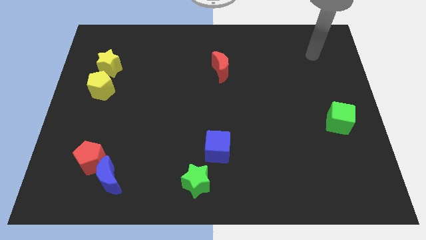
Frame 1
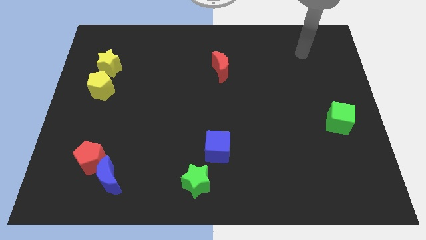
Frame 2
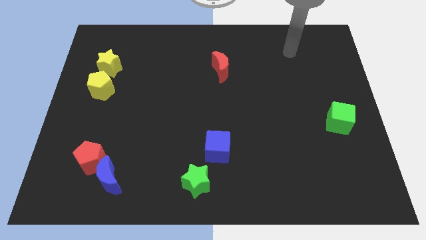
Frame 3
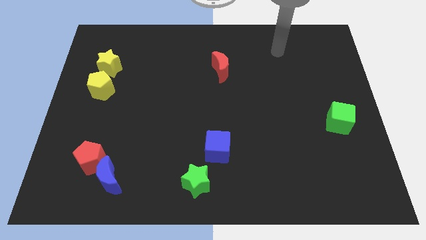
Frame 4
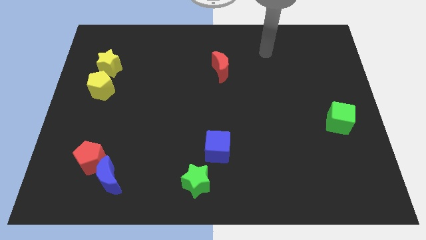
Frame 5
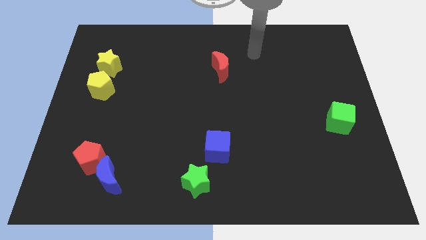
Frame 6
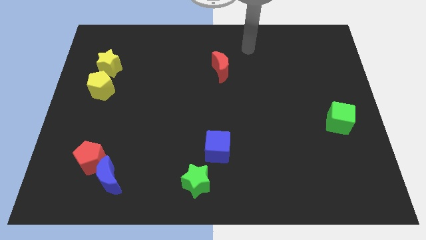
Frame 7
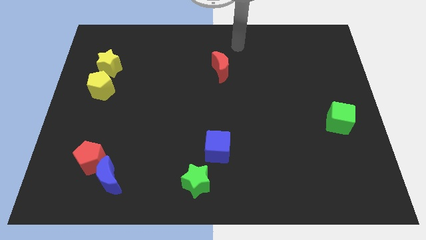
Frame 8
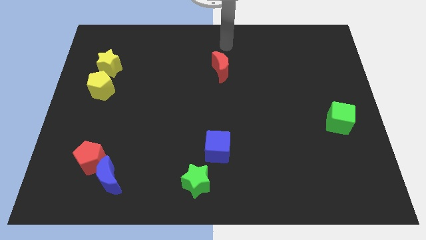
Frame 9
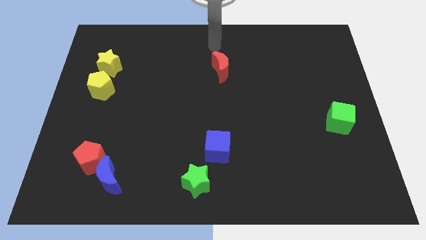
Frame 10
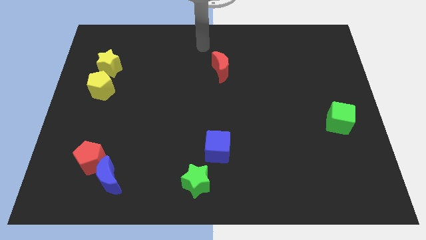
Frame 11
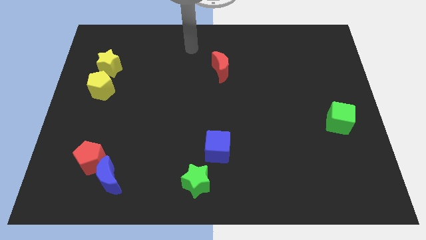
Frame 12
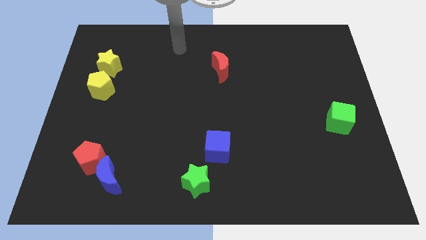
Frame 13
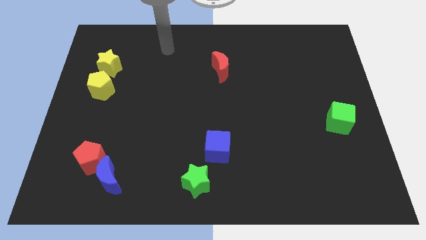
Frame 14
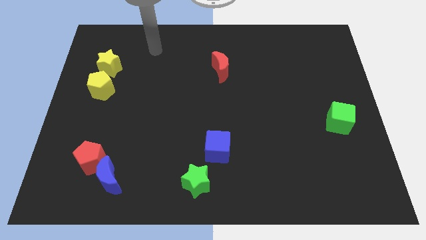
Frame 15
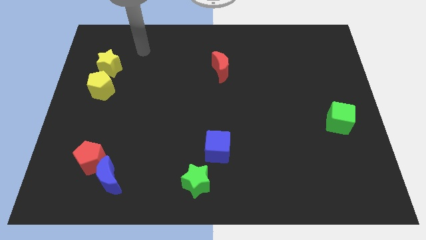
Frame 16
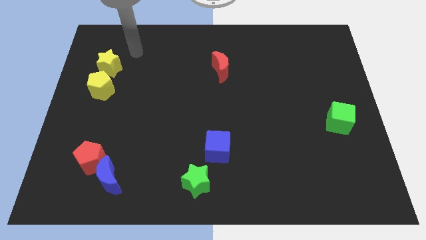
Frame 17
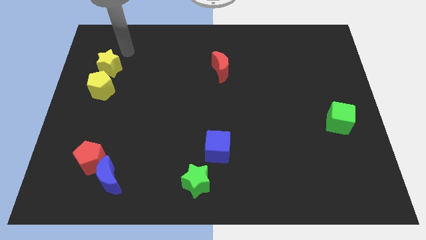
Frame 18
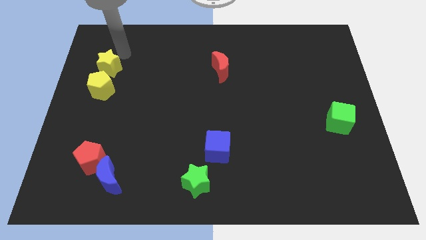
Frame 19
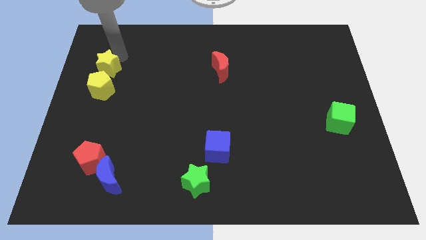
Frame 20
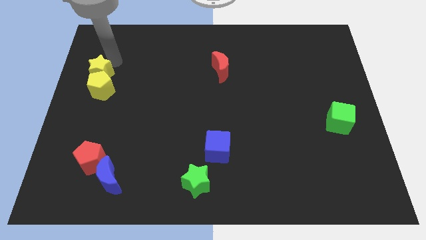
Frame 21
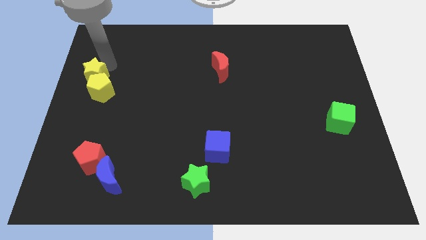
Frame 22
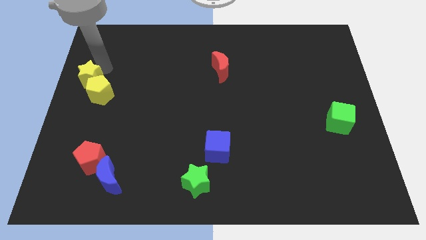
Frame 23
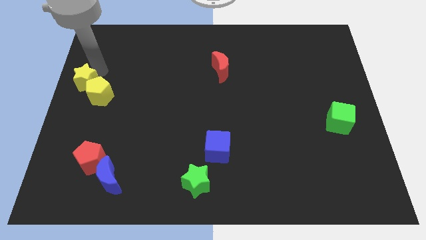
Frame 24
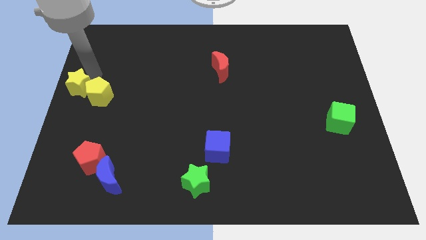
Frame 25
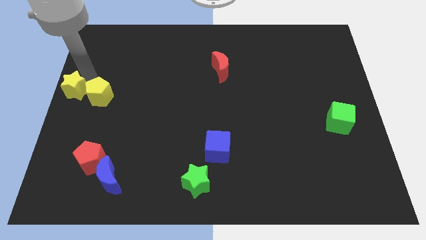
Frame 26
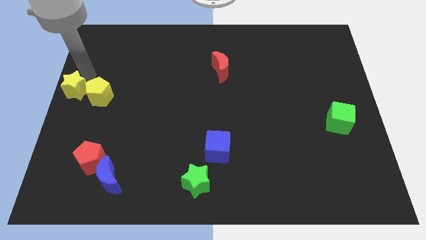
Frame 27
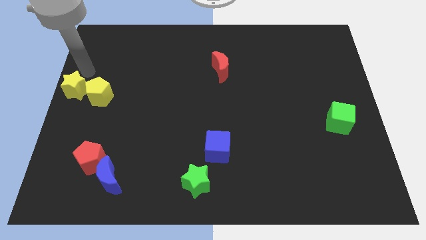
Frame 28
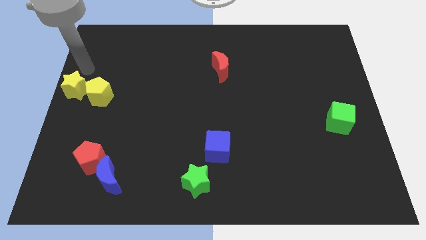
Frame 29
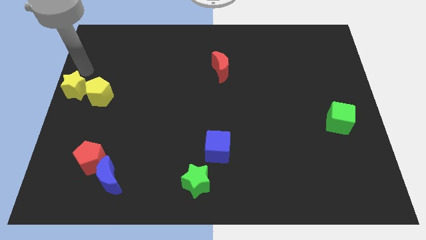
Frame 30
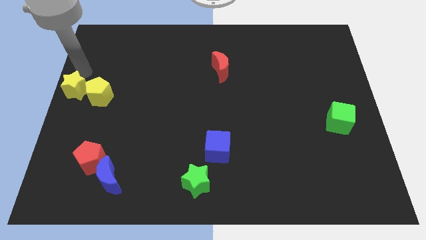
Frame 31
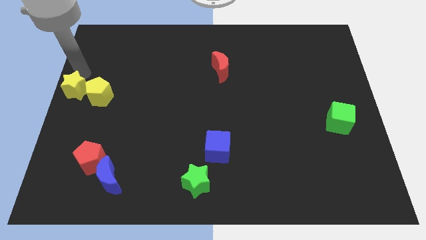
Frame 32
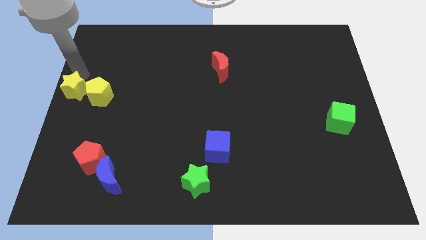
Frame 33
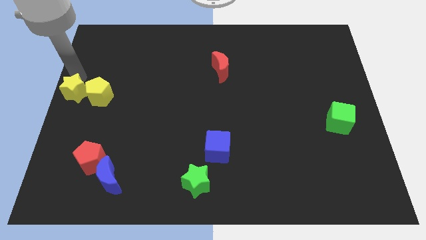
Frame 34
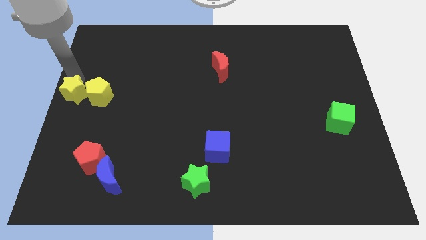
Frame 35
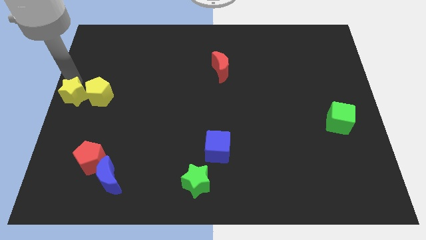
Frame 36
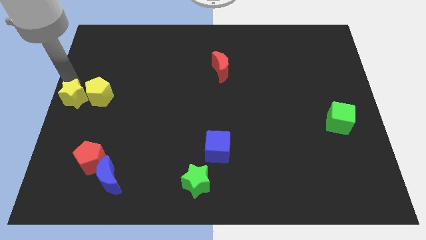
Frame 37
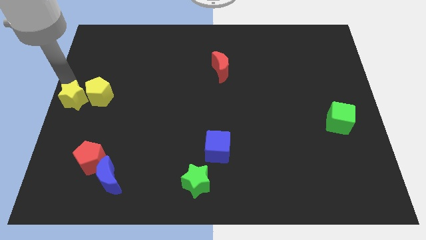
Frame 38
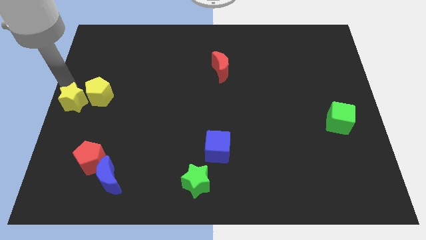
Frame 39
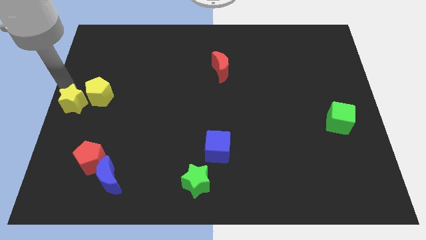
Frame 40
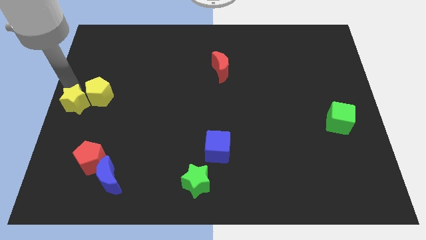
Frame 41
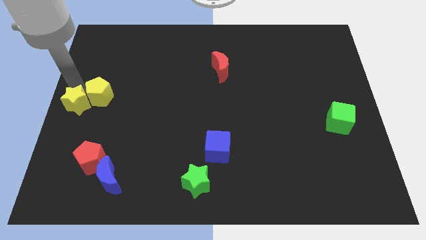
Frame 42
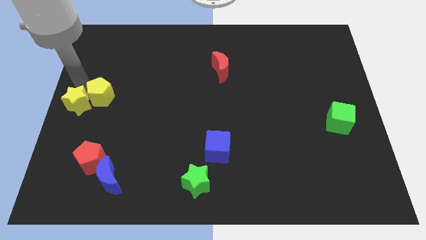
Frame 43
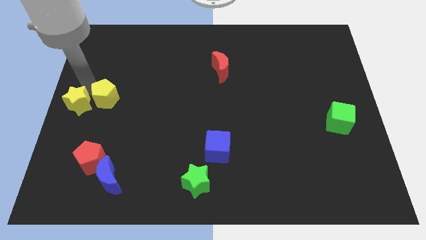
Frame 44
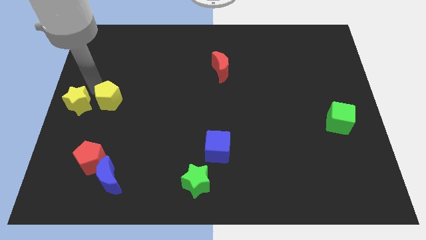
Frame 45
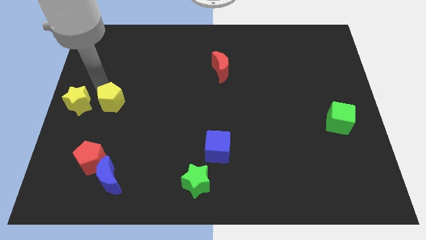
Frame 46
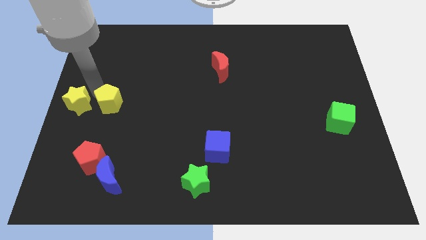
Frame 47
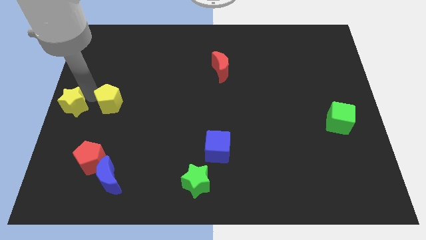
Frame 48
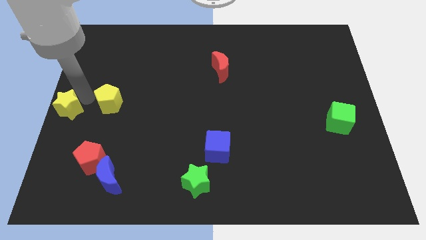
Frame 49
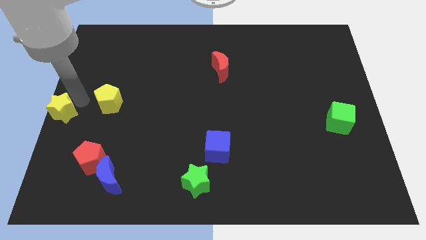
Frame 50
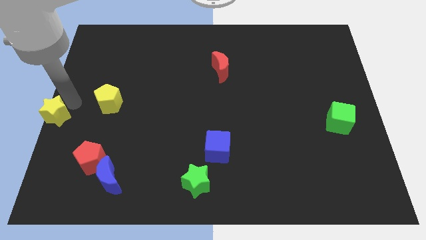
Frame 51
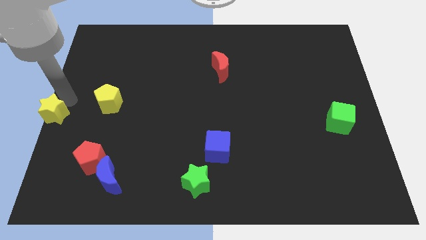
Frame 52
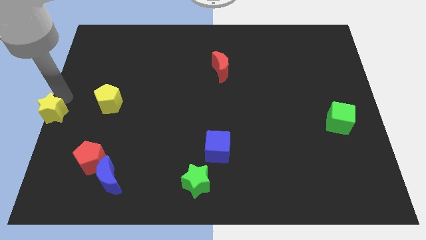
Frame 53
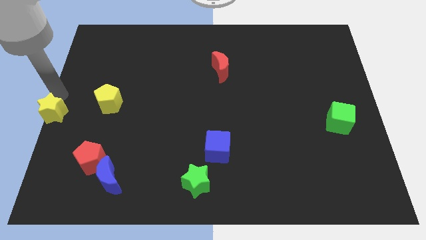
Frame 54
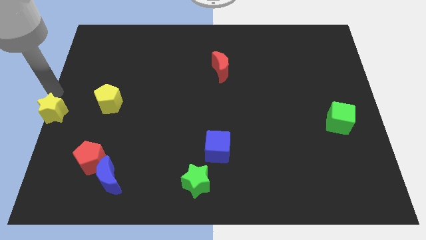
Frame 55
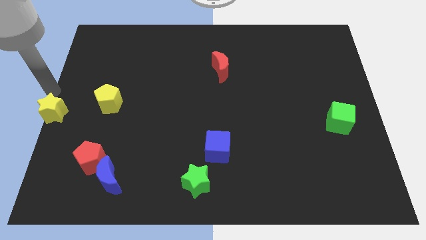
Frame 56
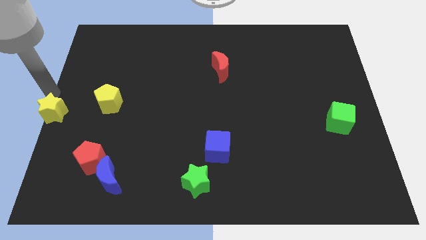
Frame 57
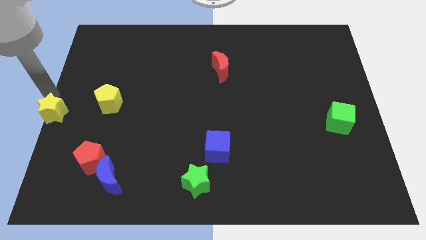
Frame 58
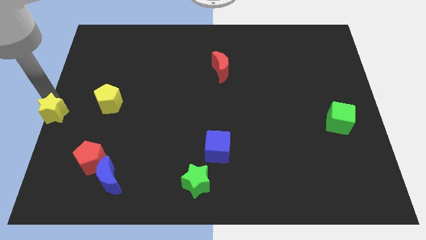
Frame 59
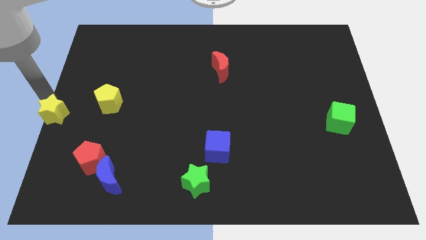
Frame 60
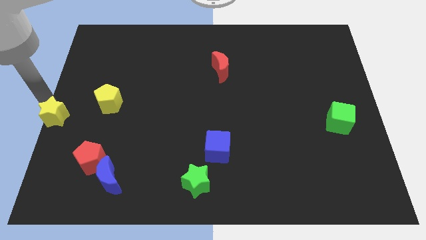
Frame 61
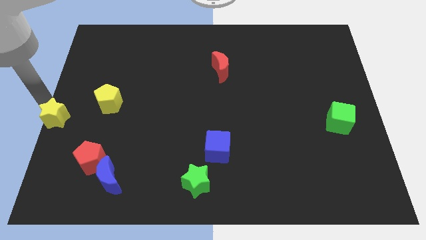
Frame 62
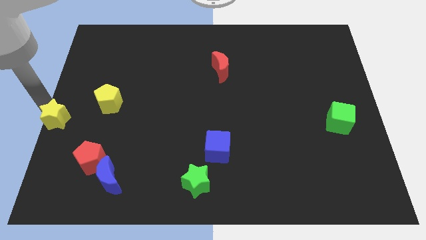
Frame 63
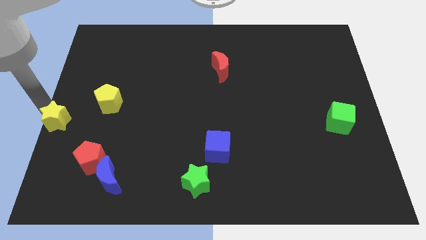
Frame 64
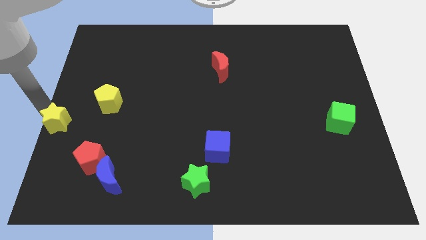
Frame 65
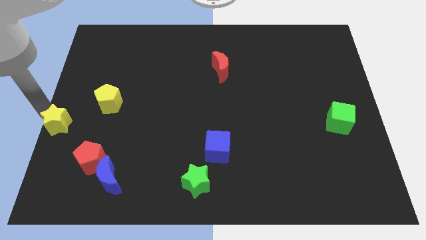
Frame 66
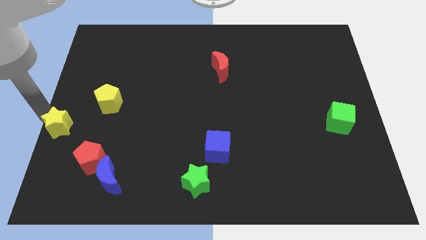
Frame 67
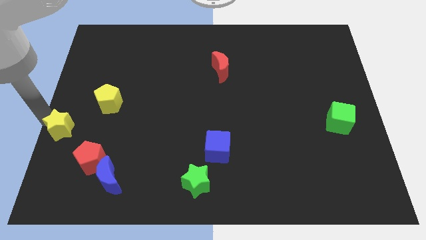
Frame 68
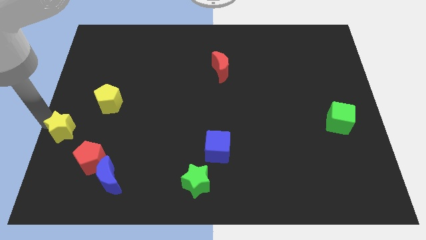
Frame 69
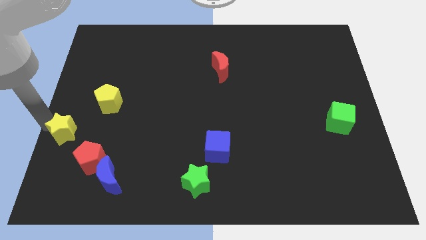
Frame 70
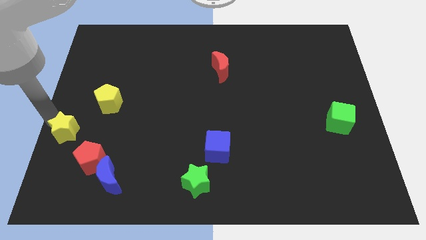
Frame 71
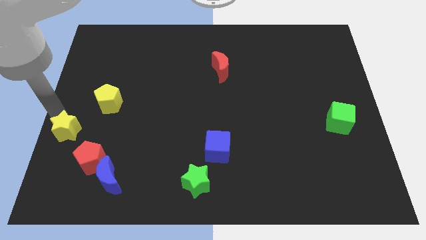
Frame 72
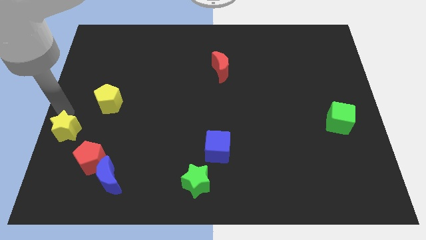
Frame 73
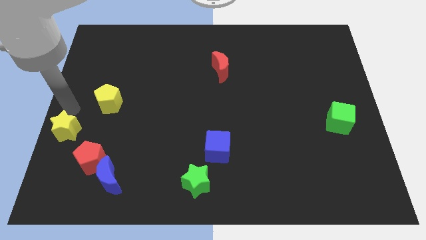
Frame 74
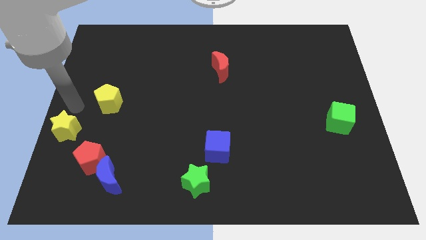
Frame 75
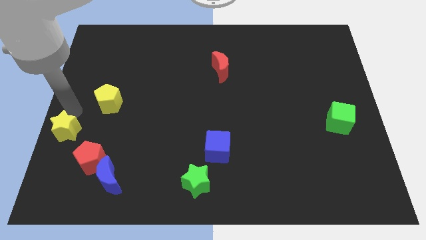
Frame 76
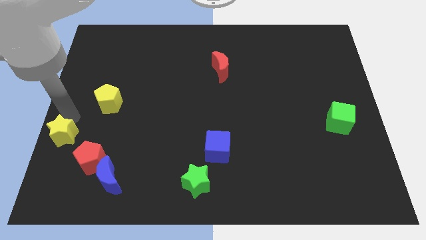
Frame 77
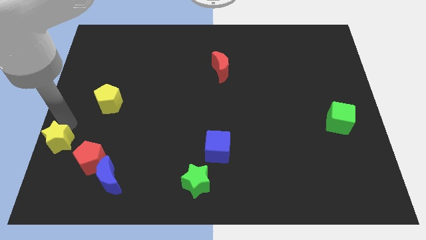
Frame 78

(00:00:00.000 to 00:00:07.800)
move the yellow star downwards
